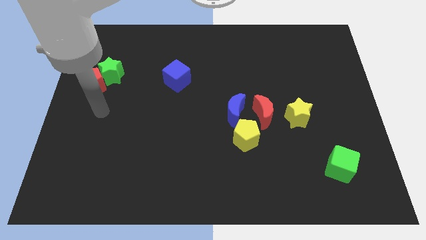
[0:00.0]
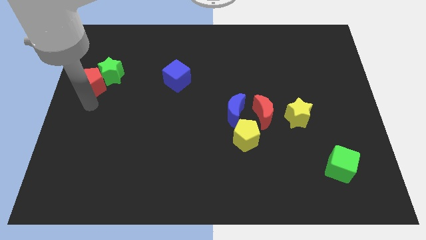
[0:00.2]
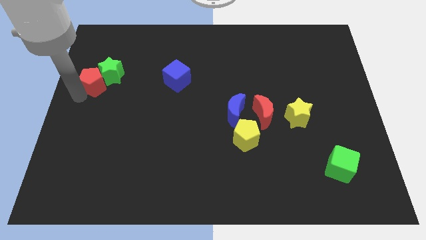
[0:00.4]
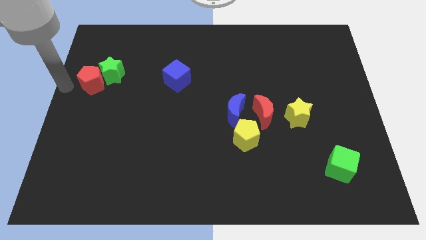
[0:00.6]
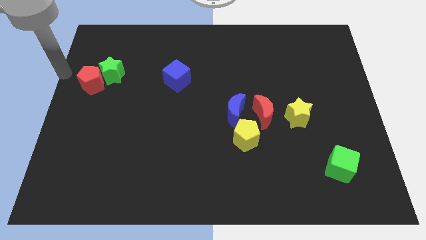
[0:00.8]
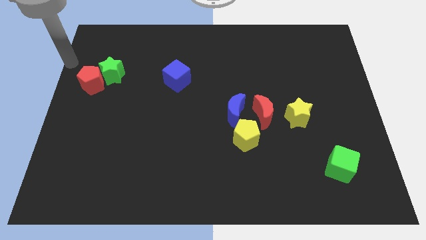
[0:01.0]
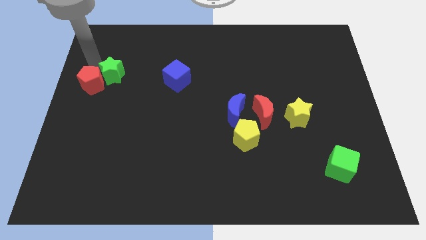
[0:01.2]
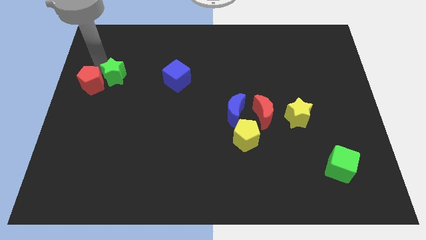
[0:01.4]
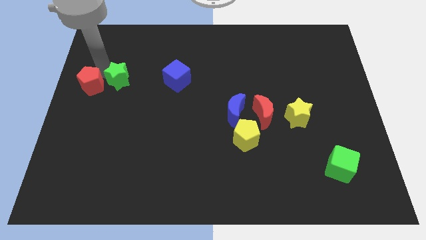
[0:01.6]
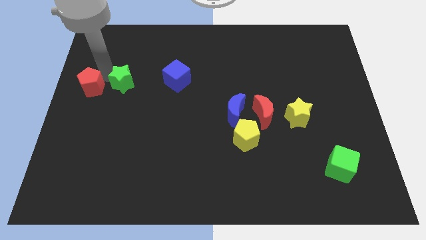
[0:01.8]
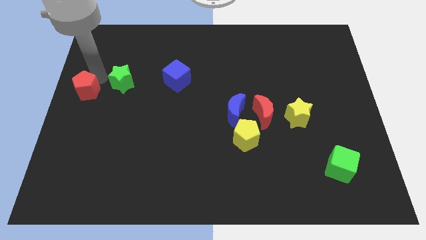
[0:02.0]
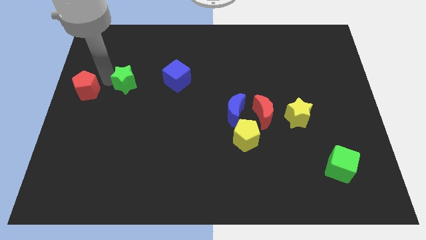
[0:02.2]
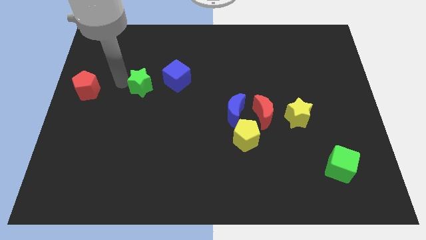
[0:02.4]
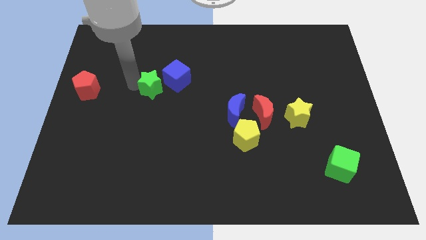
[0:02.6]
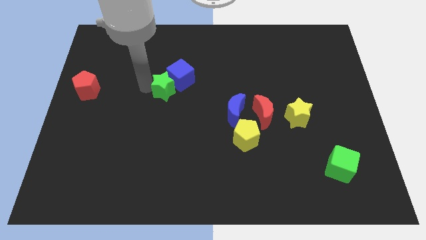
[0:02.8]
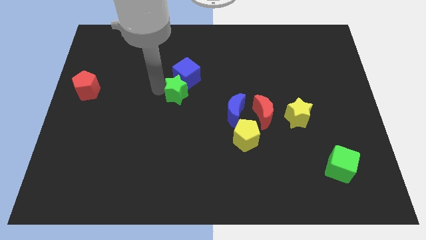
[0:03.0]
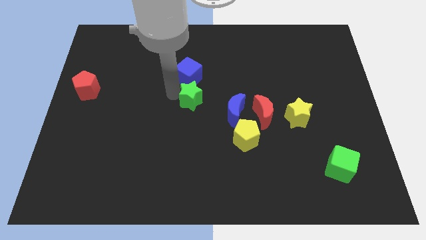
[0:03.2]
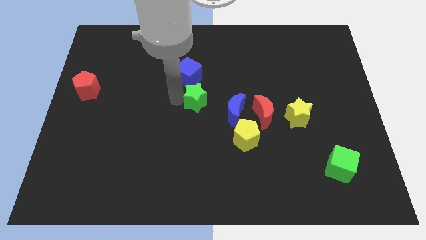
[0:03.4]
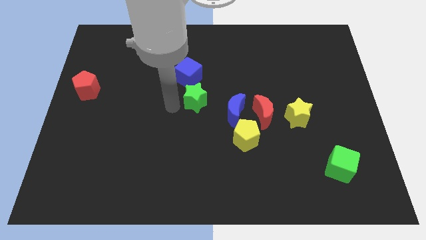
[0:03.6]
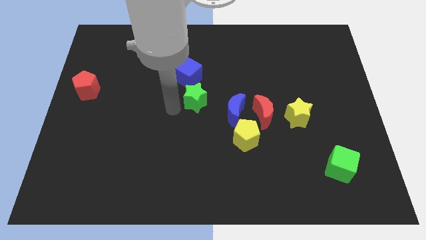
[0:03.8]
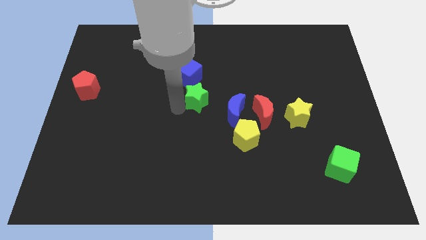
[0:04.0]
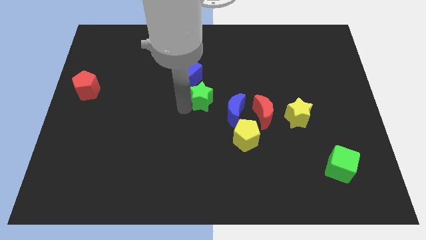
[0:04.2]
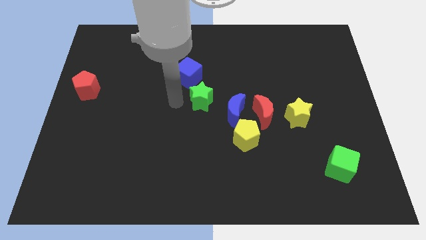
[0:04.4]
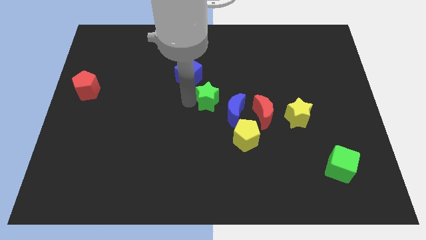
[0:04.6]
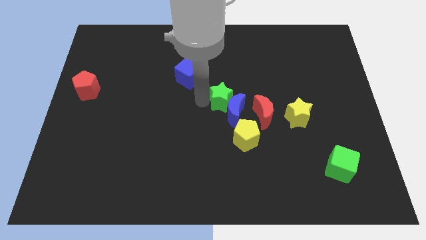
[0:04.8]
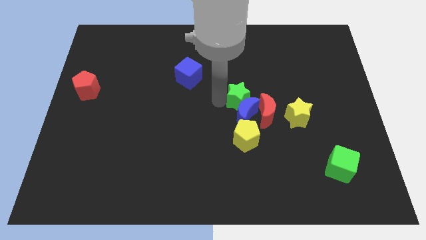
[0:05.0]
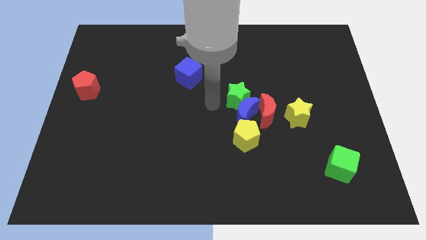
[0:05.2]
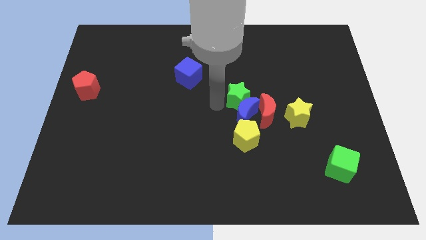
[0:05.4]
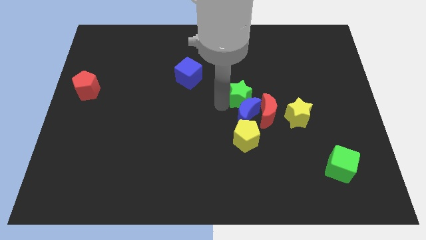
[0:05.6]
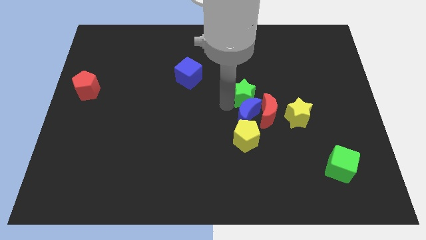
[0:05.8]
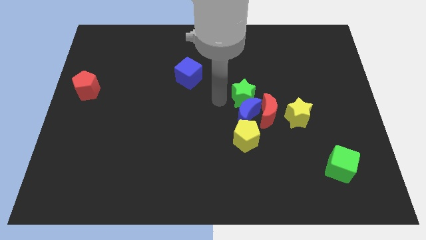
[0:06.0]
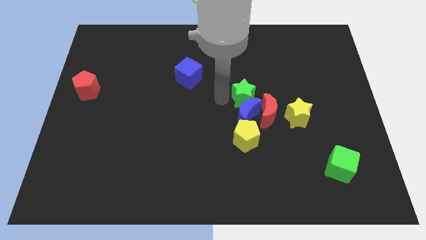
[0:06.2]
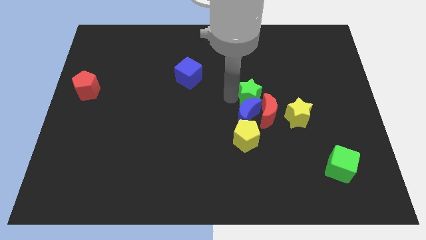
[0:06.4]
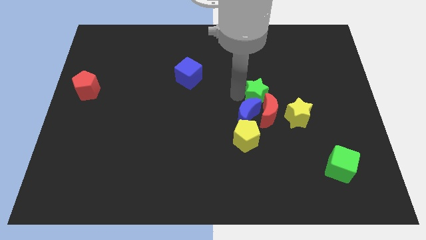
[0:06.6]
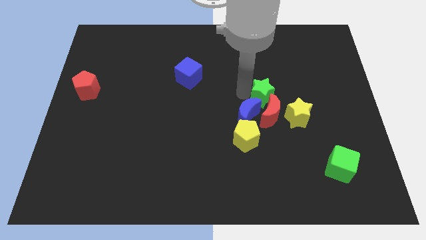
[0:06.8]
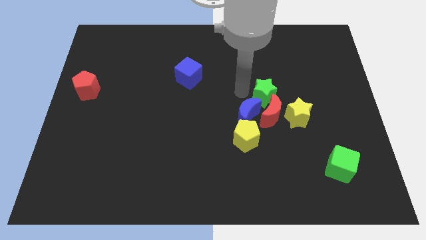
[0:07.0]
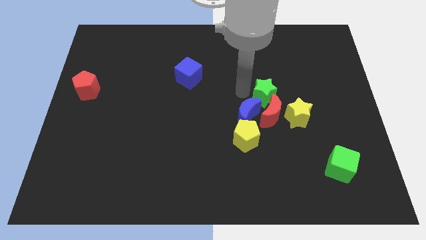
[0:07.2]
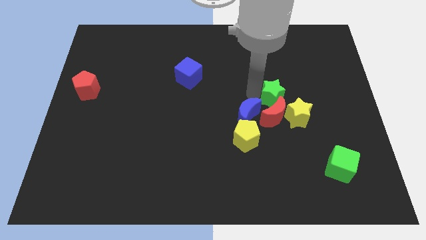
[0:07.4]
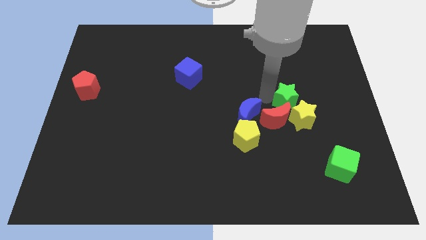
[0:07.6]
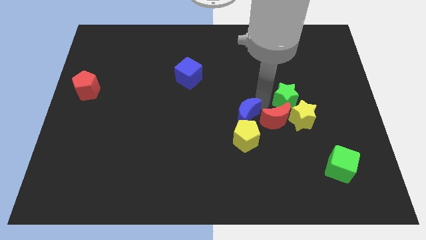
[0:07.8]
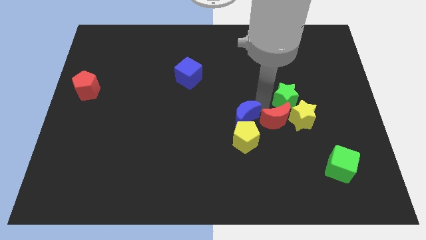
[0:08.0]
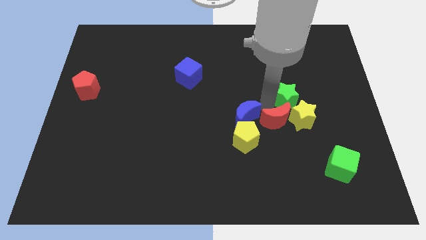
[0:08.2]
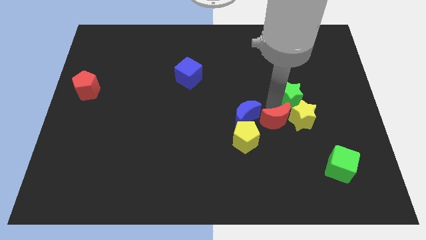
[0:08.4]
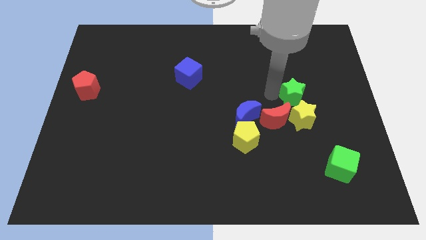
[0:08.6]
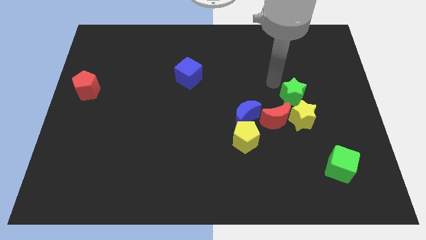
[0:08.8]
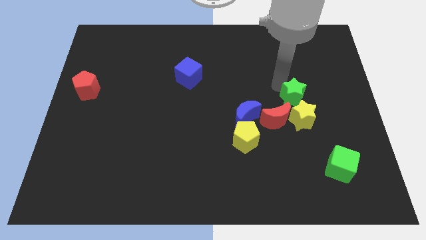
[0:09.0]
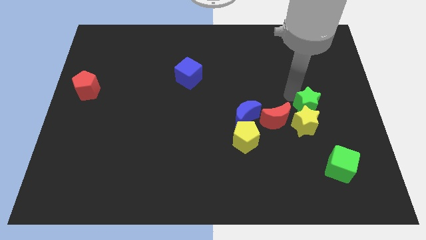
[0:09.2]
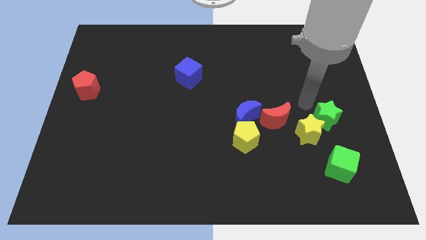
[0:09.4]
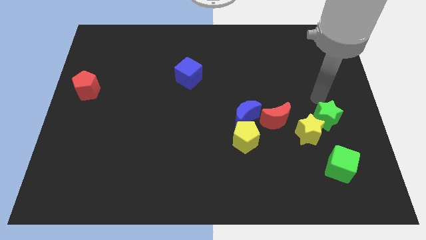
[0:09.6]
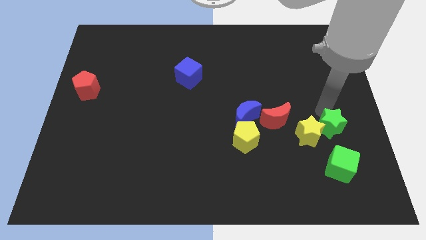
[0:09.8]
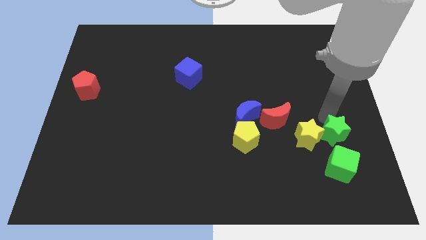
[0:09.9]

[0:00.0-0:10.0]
slide the green star diagonally down and to the right of the yellow star

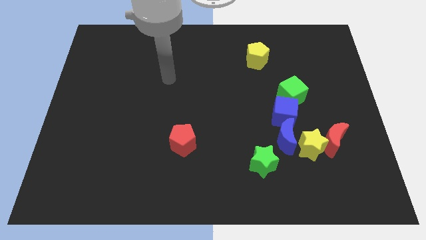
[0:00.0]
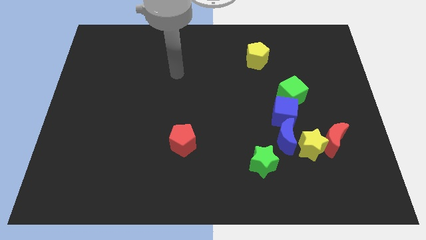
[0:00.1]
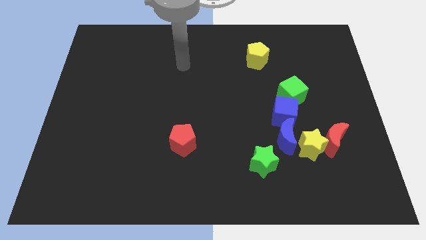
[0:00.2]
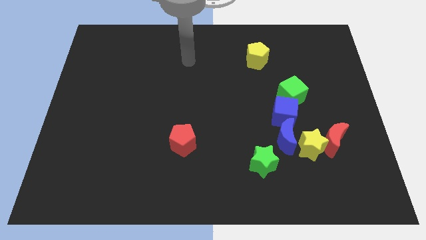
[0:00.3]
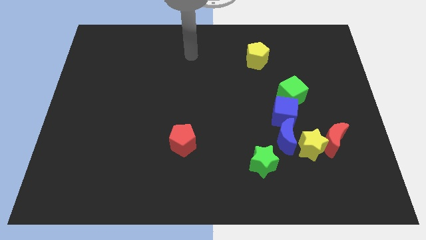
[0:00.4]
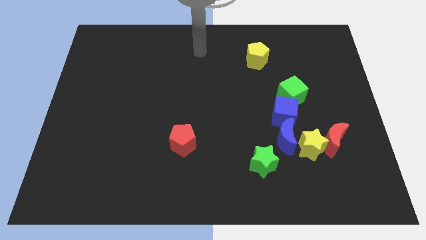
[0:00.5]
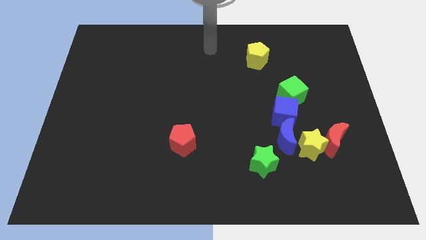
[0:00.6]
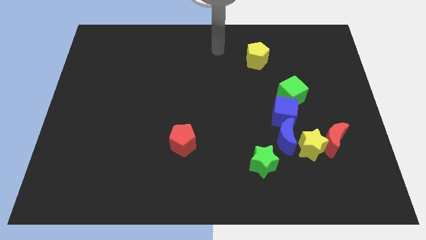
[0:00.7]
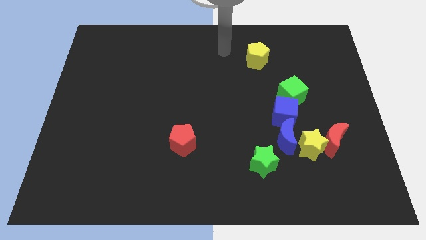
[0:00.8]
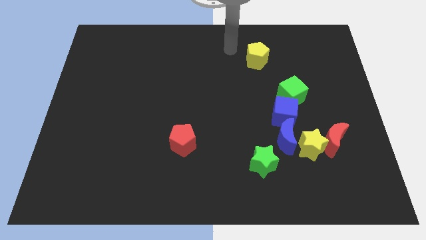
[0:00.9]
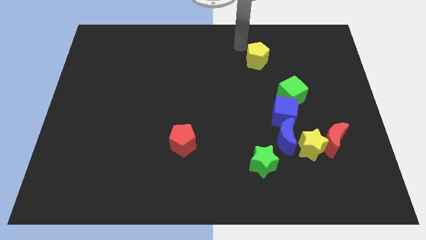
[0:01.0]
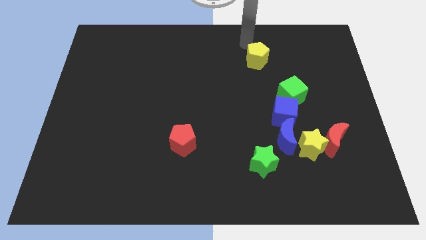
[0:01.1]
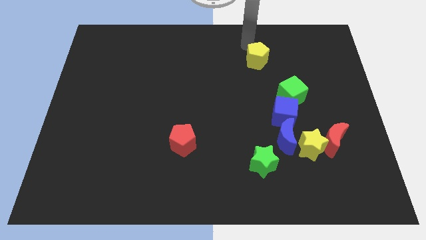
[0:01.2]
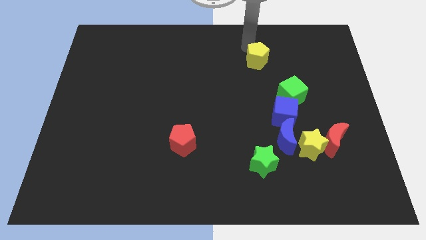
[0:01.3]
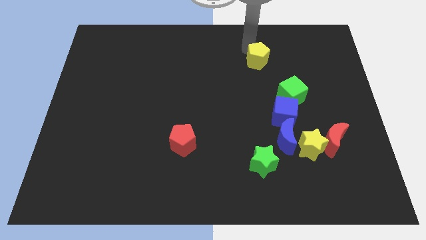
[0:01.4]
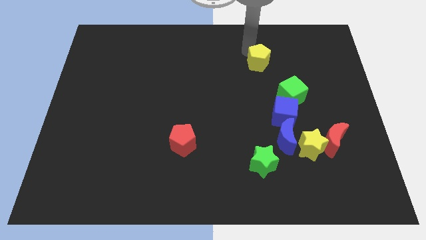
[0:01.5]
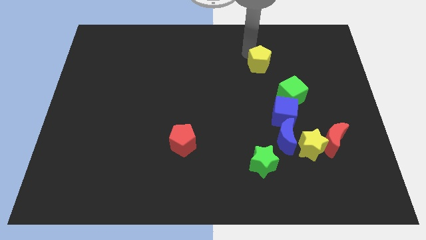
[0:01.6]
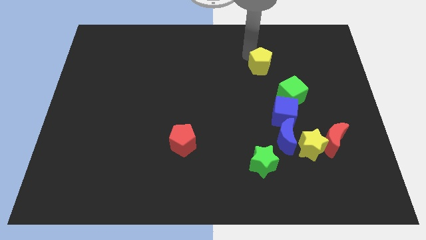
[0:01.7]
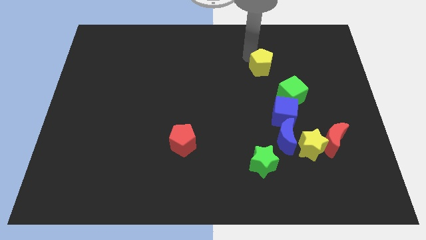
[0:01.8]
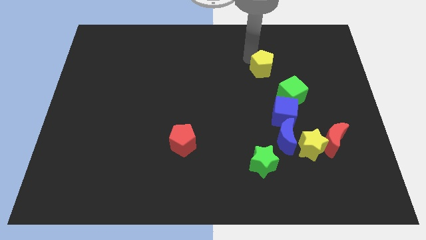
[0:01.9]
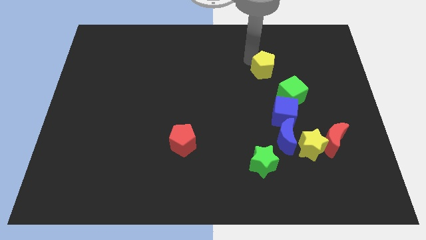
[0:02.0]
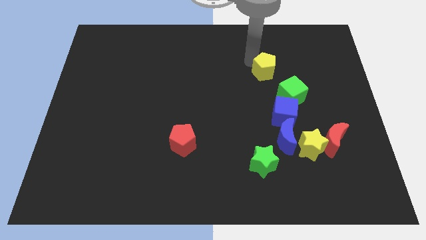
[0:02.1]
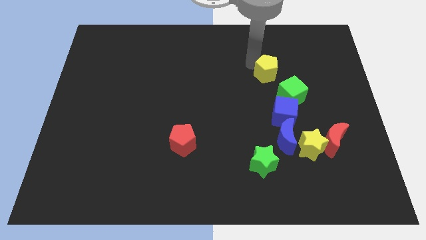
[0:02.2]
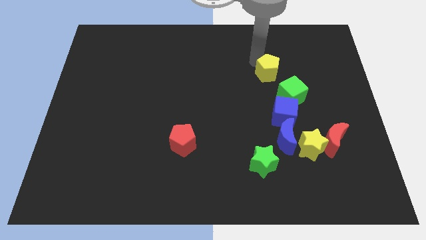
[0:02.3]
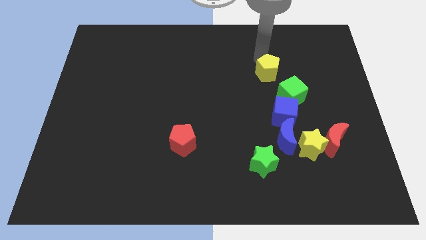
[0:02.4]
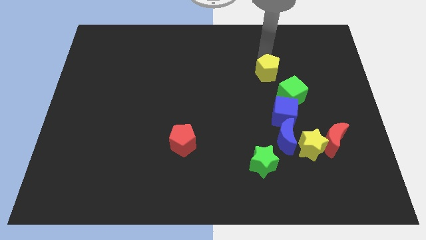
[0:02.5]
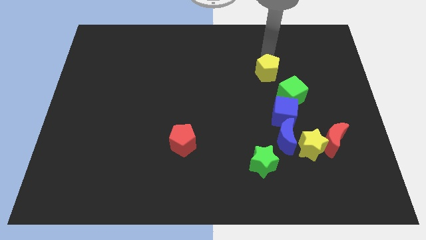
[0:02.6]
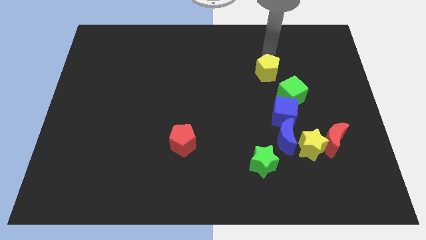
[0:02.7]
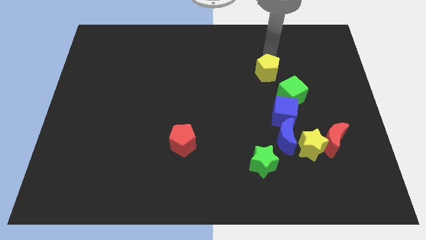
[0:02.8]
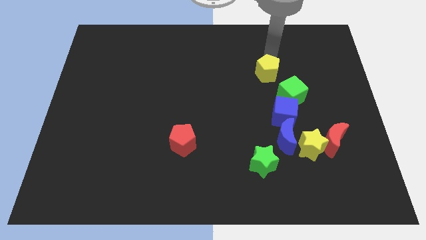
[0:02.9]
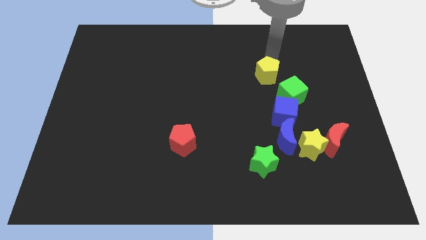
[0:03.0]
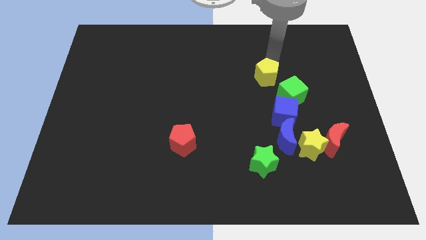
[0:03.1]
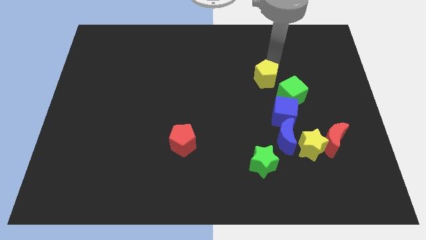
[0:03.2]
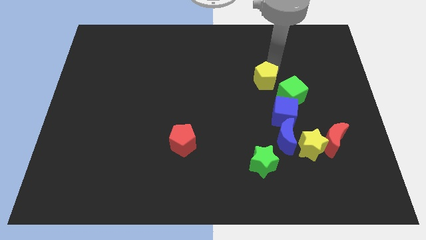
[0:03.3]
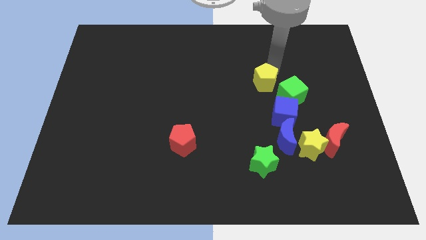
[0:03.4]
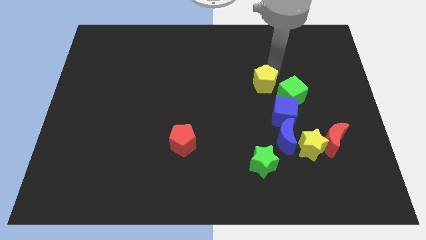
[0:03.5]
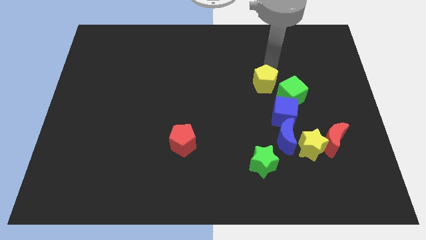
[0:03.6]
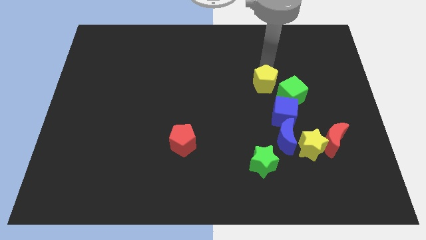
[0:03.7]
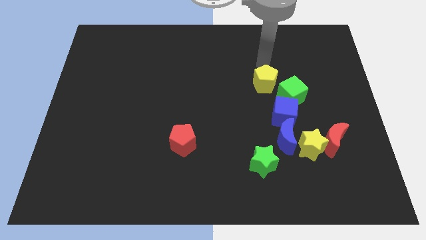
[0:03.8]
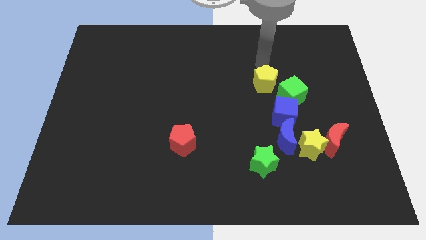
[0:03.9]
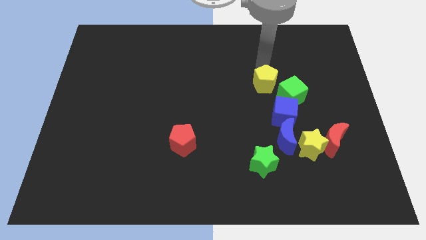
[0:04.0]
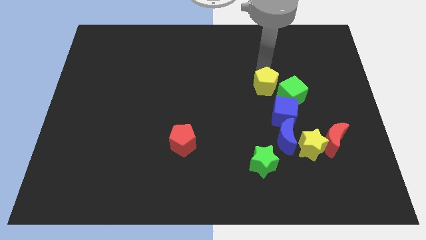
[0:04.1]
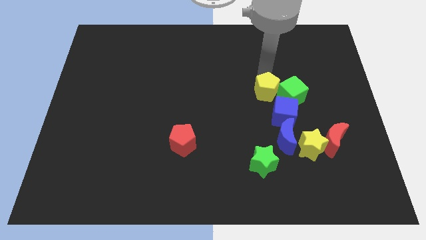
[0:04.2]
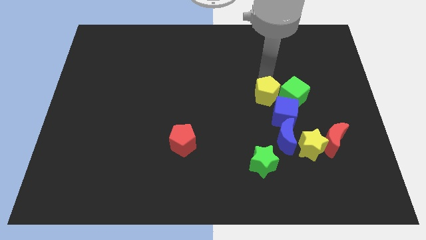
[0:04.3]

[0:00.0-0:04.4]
slide the yellow pentagon to the bottom left of the green cube
